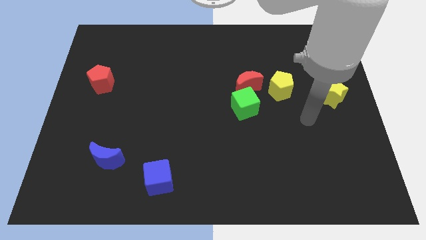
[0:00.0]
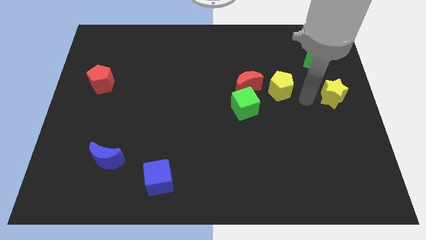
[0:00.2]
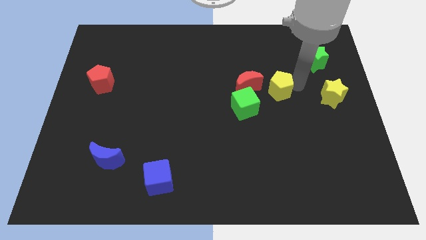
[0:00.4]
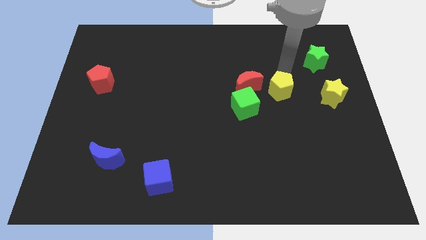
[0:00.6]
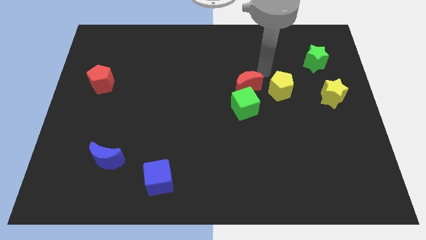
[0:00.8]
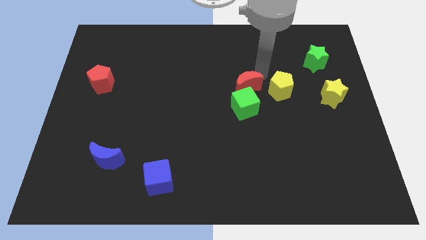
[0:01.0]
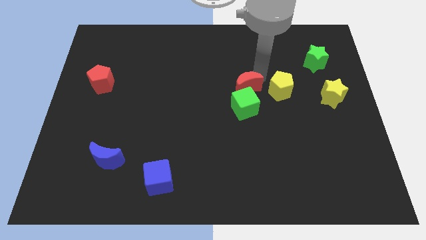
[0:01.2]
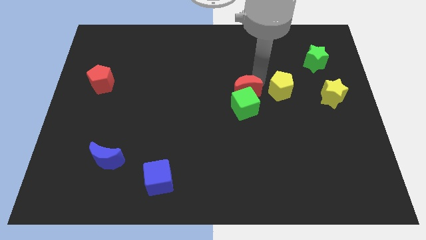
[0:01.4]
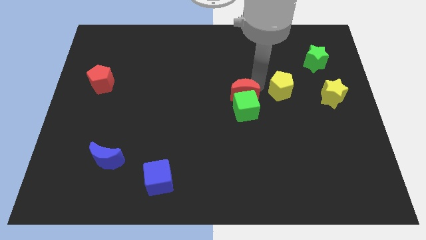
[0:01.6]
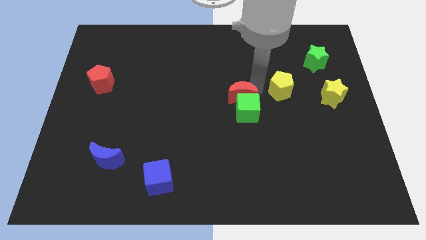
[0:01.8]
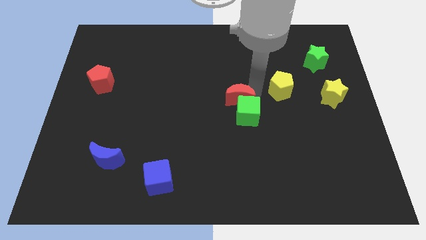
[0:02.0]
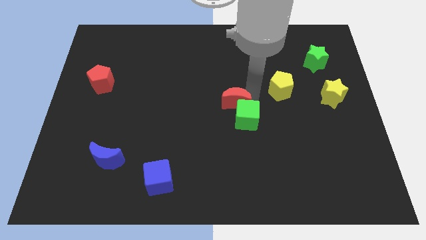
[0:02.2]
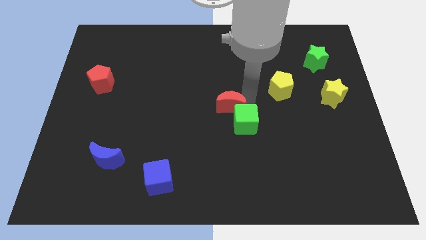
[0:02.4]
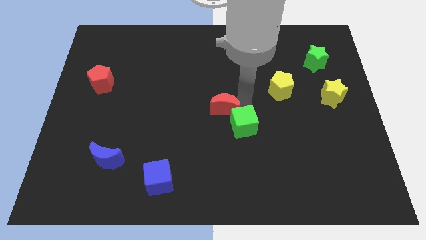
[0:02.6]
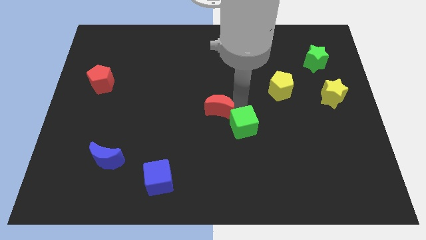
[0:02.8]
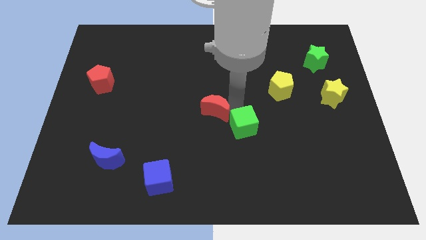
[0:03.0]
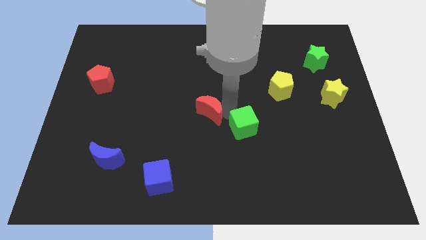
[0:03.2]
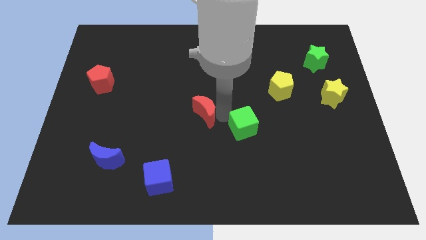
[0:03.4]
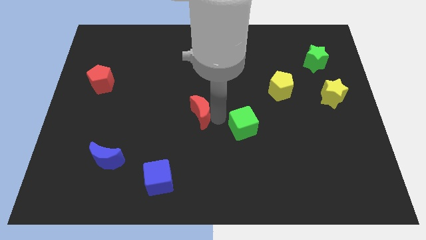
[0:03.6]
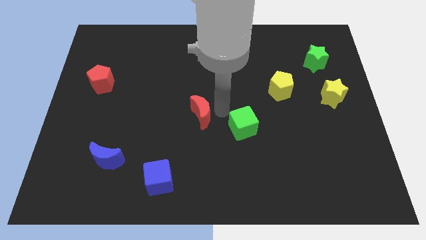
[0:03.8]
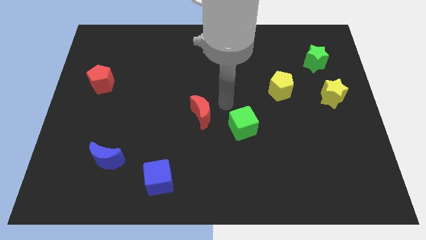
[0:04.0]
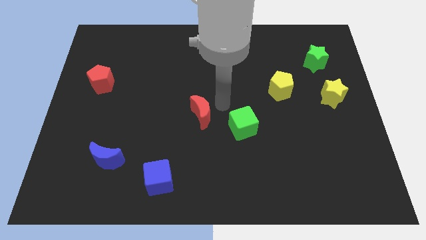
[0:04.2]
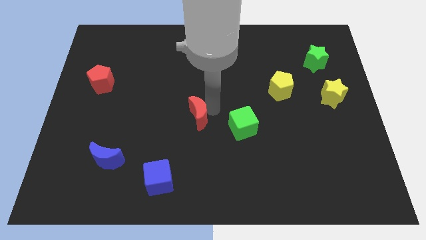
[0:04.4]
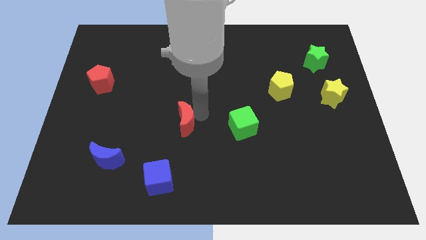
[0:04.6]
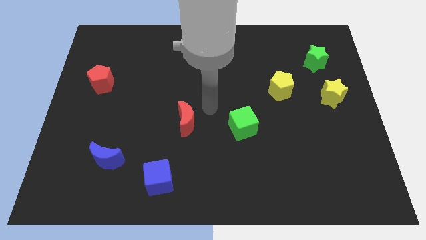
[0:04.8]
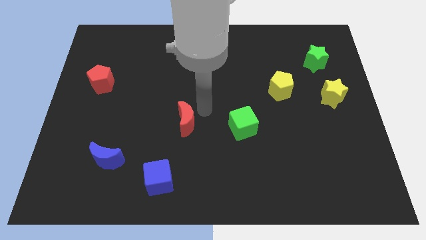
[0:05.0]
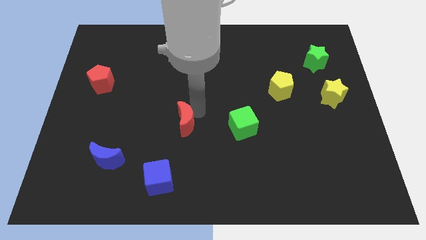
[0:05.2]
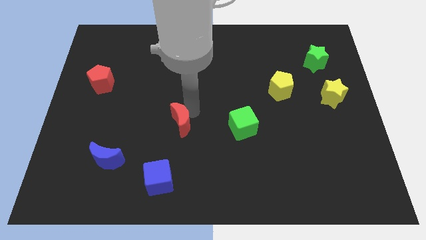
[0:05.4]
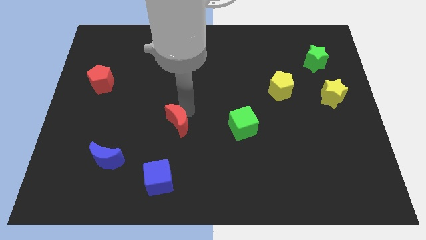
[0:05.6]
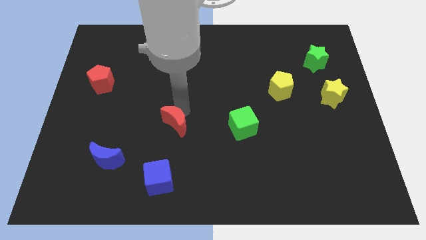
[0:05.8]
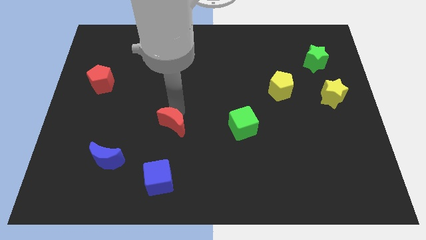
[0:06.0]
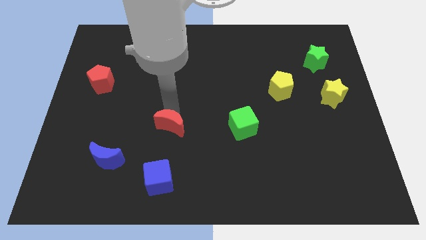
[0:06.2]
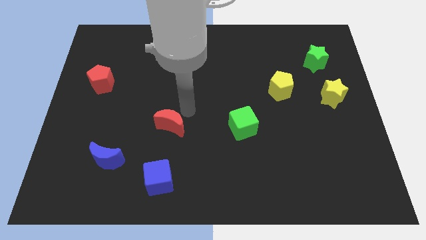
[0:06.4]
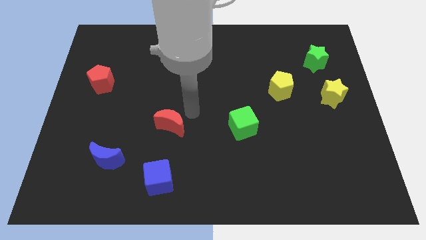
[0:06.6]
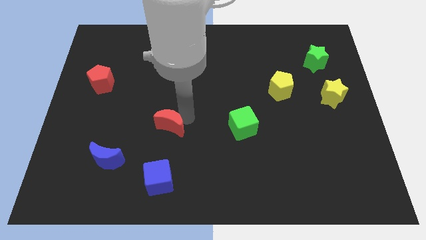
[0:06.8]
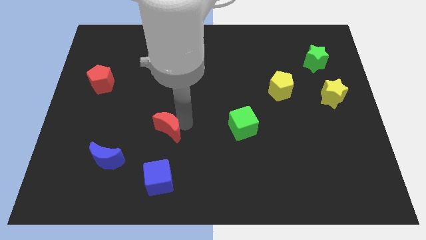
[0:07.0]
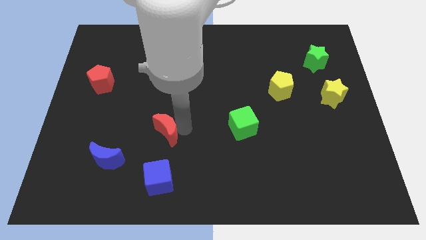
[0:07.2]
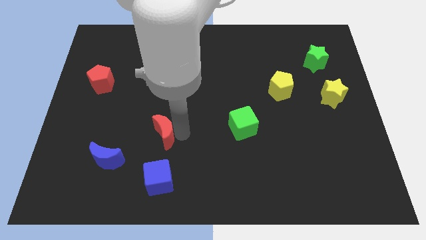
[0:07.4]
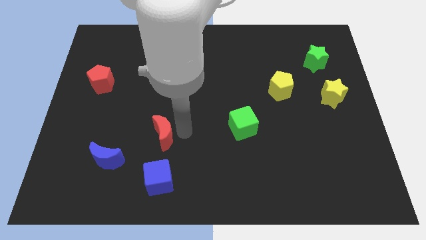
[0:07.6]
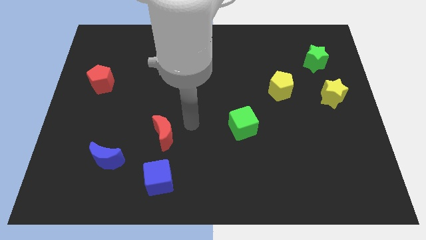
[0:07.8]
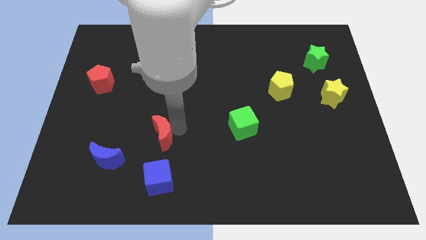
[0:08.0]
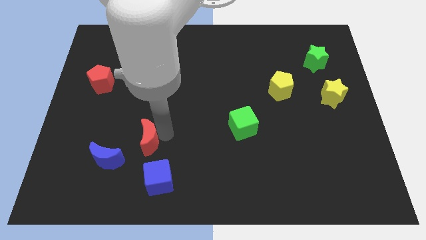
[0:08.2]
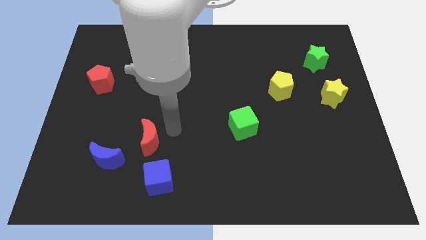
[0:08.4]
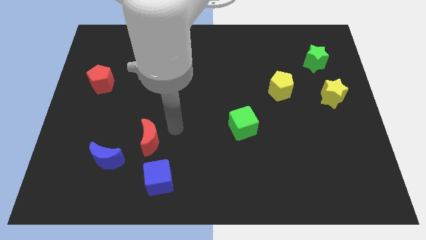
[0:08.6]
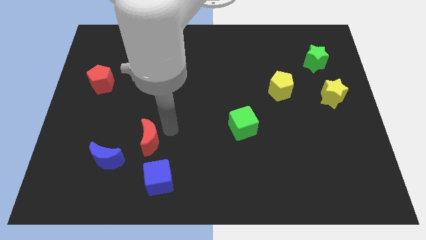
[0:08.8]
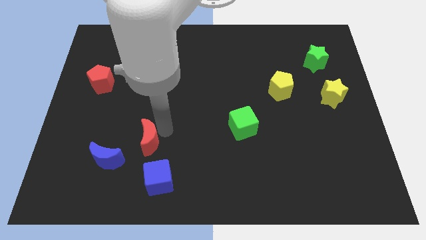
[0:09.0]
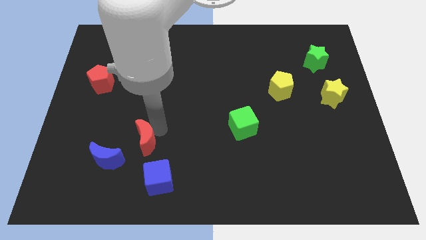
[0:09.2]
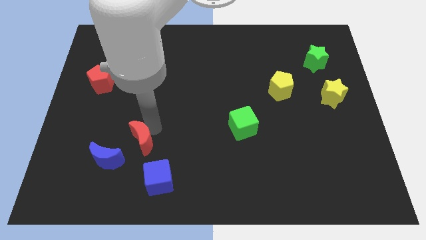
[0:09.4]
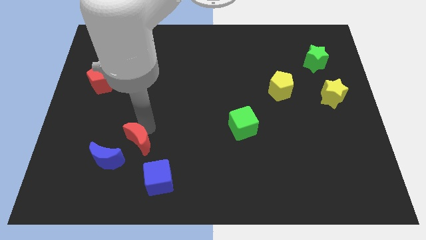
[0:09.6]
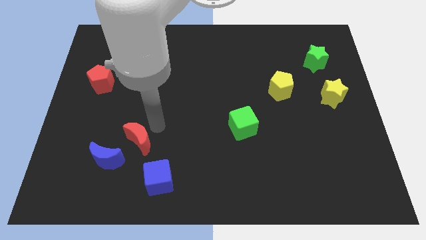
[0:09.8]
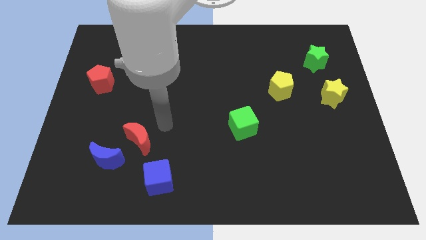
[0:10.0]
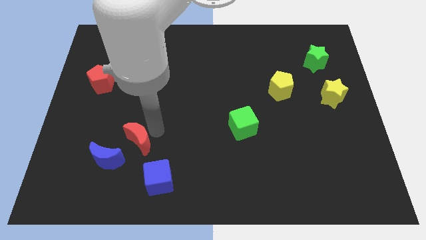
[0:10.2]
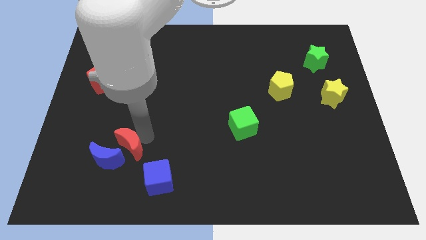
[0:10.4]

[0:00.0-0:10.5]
push the red moon to the blue moon

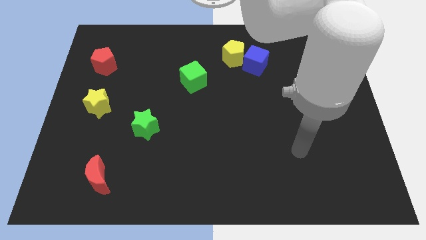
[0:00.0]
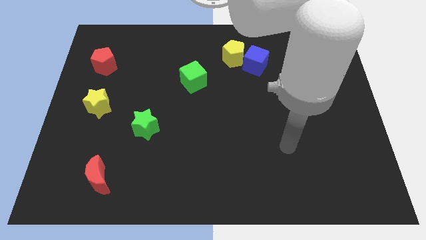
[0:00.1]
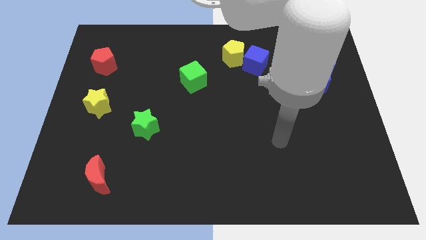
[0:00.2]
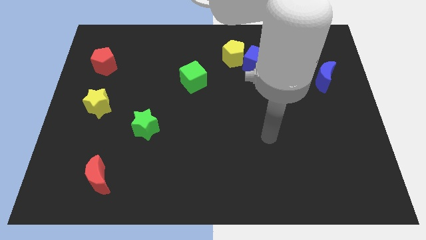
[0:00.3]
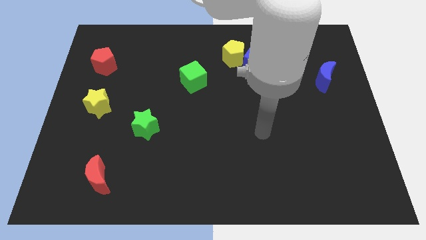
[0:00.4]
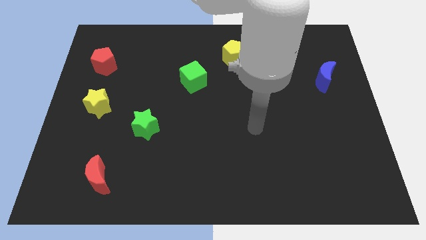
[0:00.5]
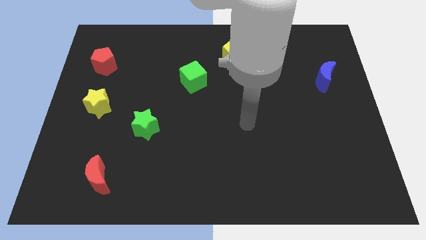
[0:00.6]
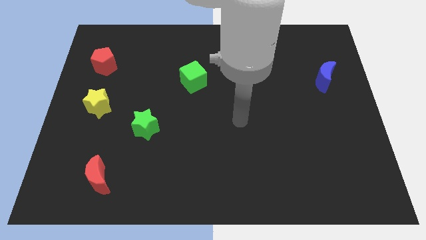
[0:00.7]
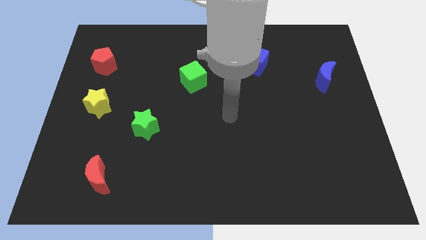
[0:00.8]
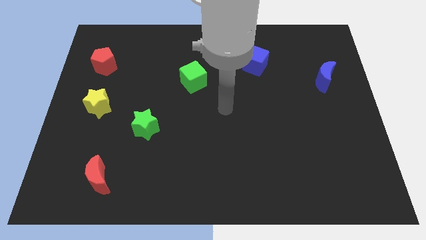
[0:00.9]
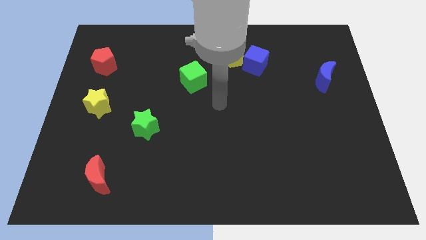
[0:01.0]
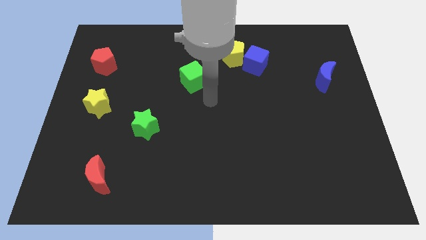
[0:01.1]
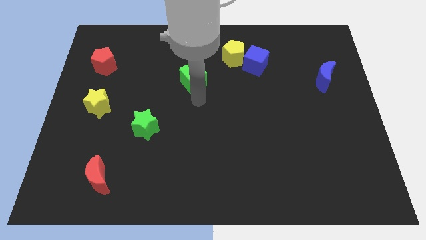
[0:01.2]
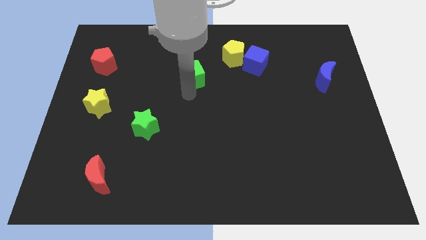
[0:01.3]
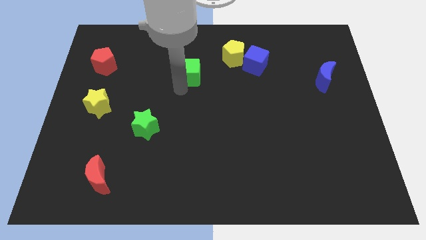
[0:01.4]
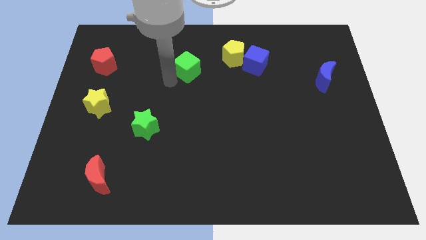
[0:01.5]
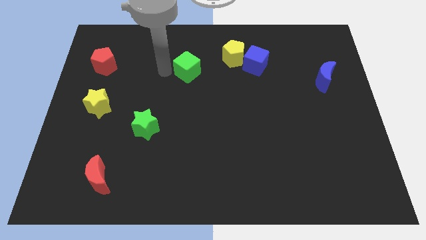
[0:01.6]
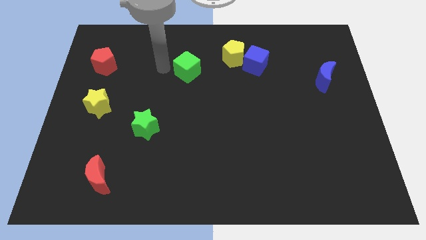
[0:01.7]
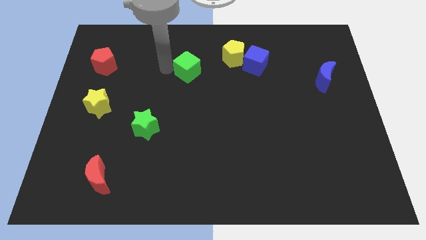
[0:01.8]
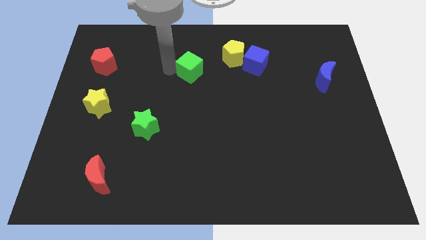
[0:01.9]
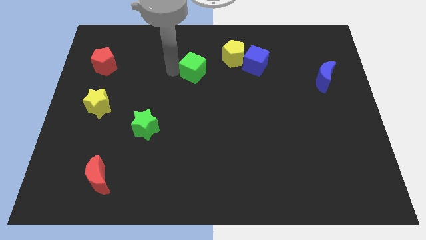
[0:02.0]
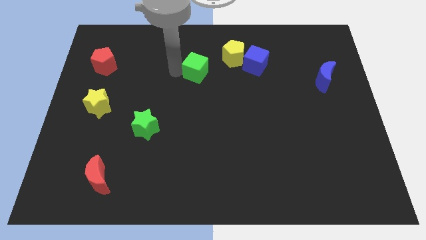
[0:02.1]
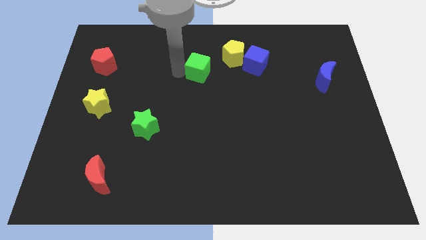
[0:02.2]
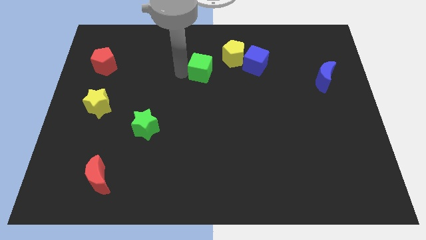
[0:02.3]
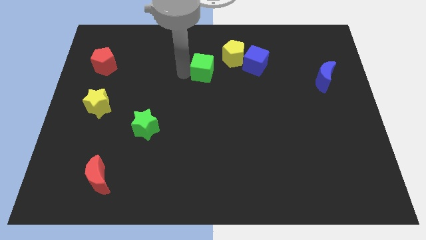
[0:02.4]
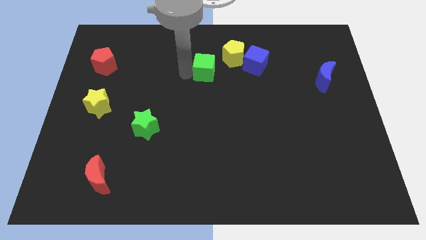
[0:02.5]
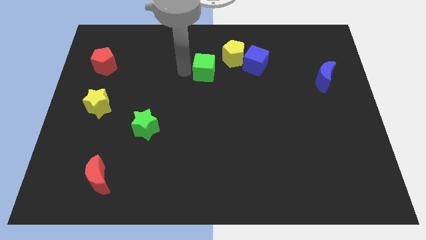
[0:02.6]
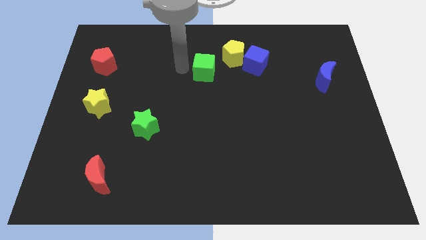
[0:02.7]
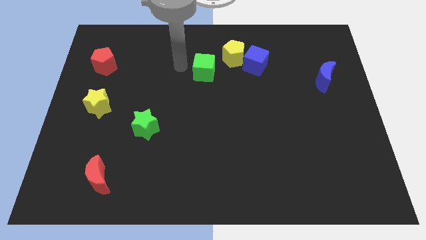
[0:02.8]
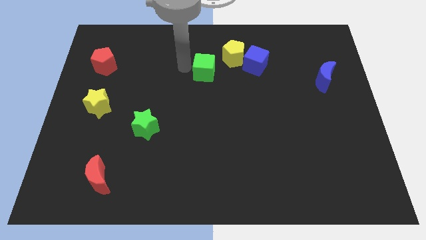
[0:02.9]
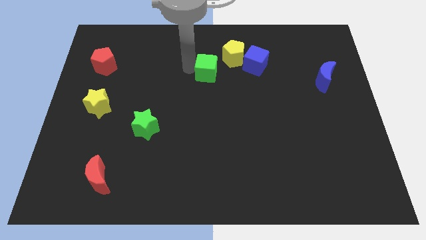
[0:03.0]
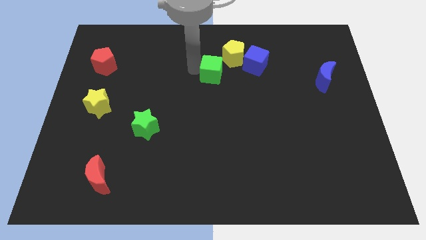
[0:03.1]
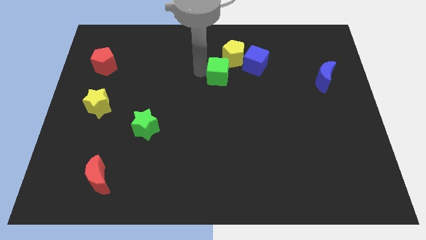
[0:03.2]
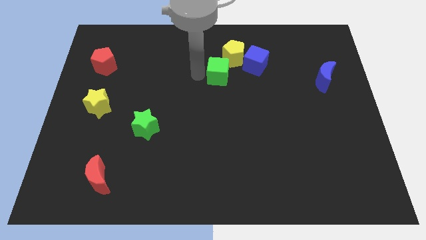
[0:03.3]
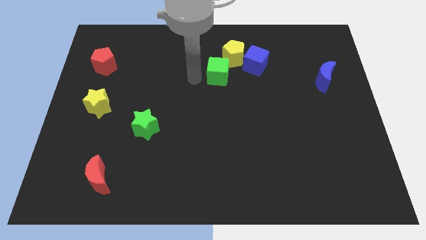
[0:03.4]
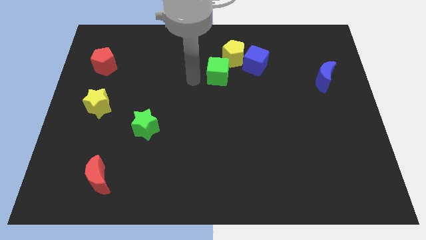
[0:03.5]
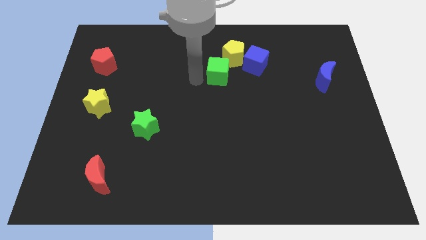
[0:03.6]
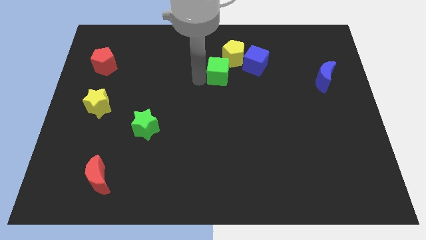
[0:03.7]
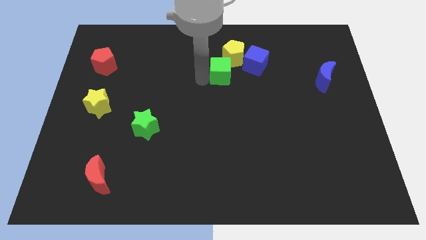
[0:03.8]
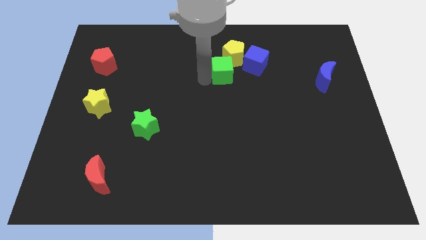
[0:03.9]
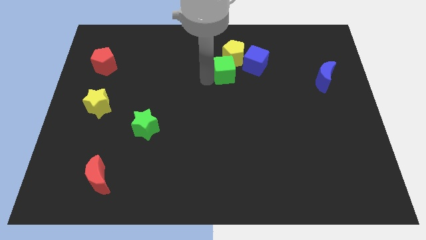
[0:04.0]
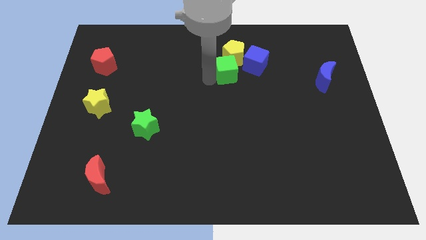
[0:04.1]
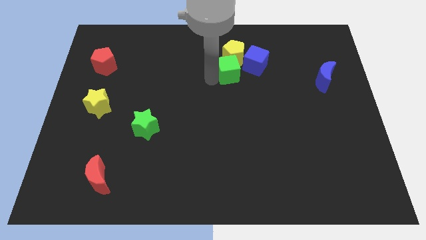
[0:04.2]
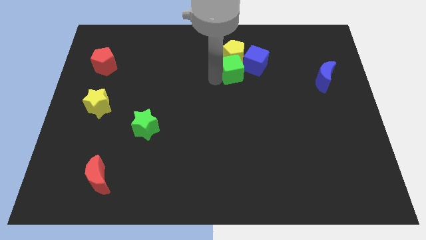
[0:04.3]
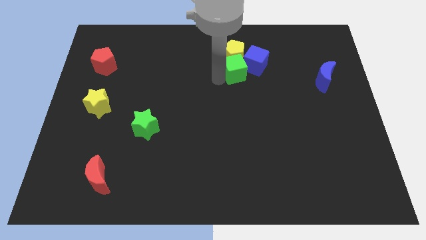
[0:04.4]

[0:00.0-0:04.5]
slide the green cube close to the blue cube
